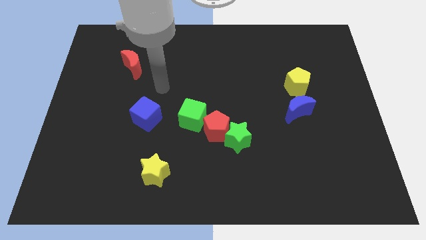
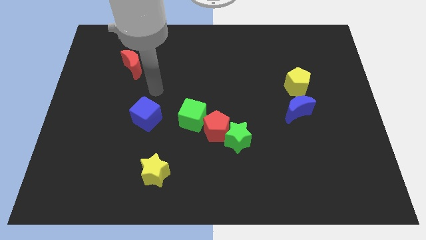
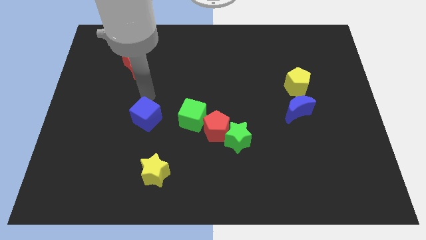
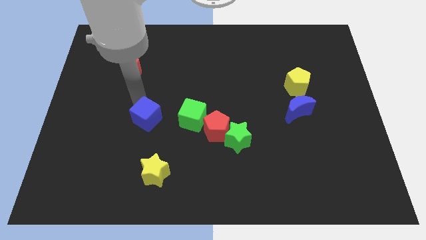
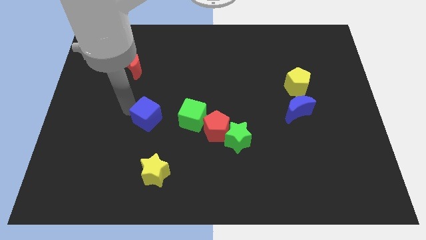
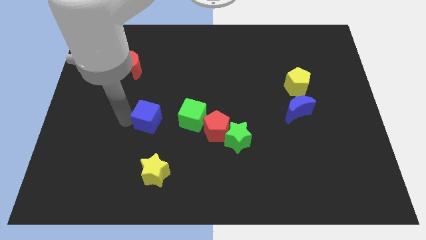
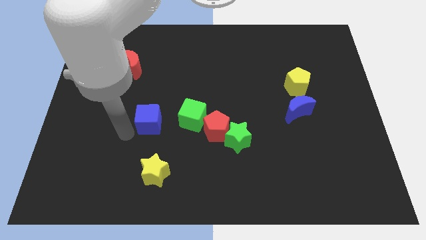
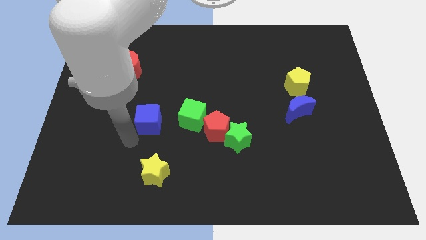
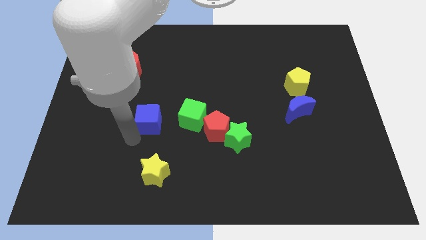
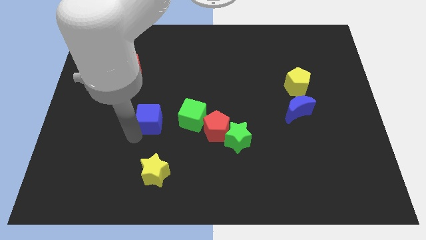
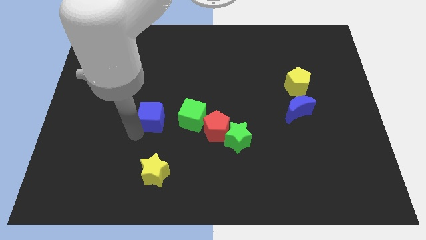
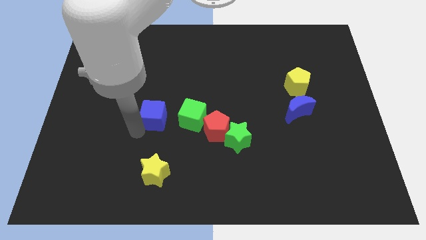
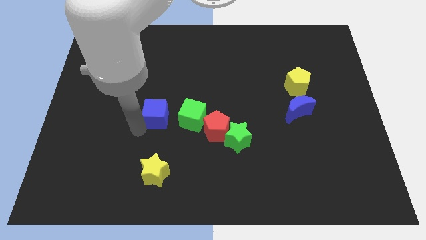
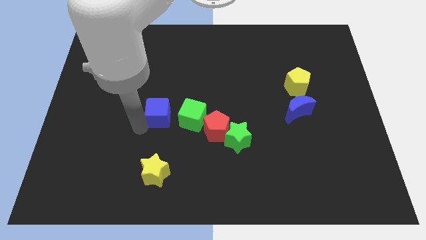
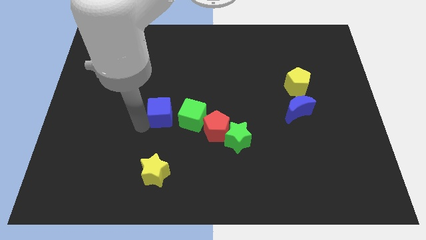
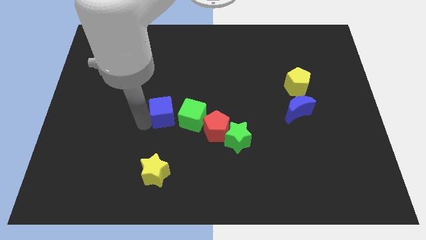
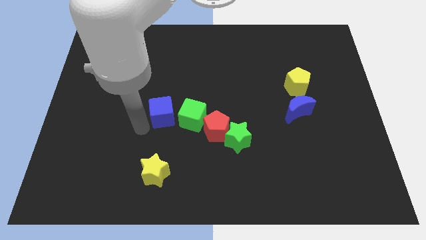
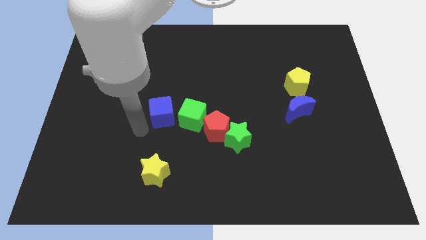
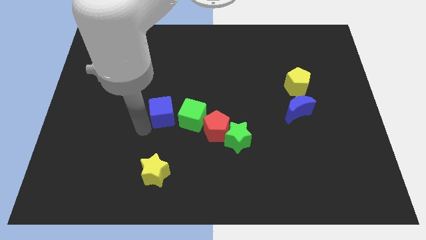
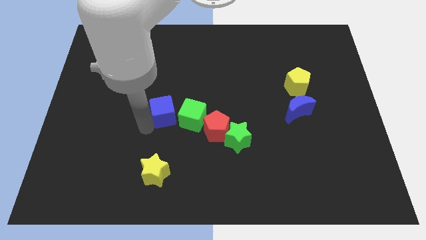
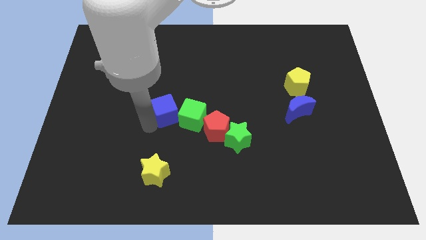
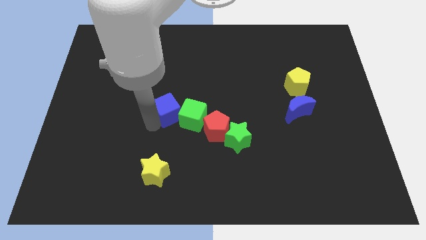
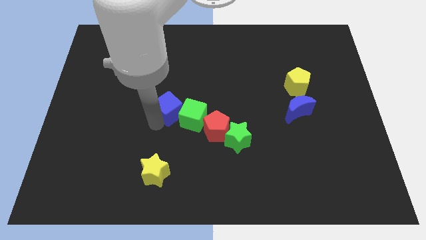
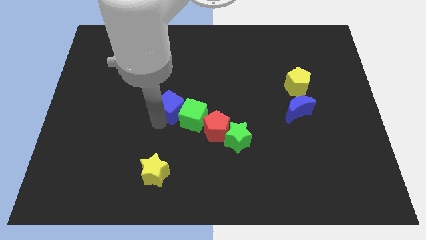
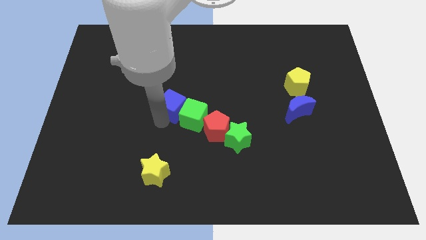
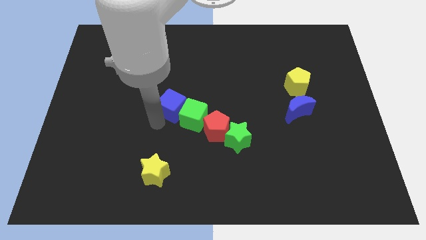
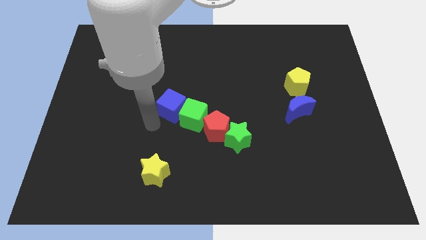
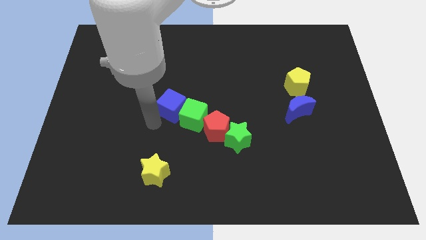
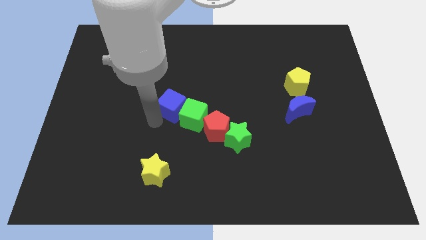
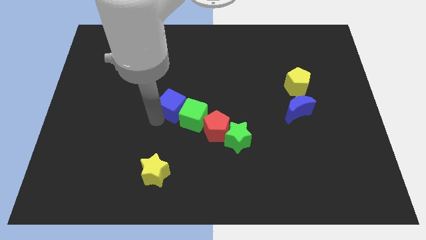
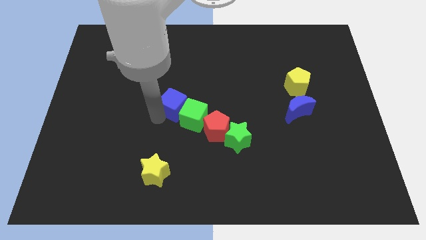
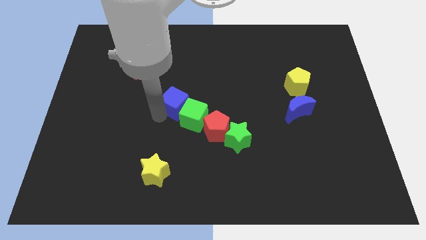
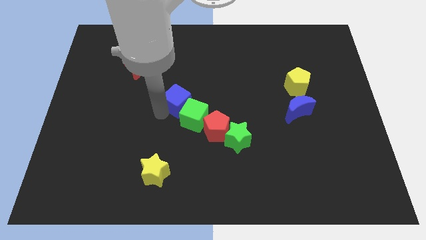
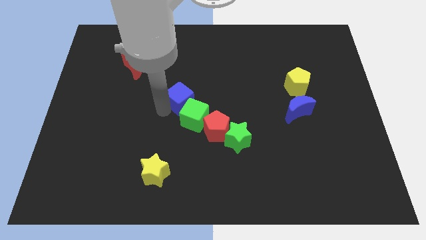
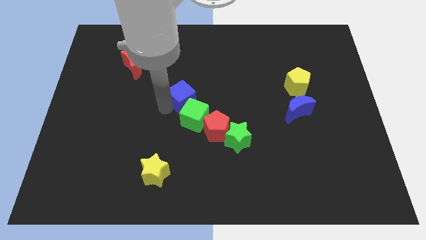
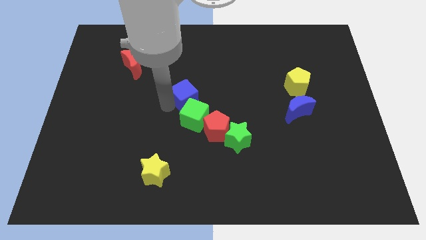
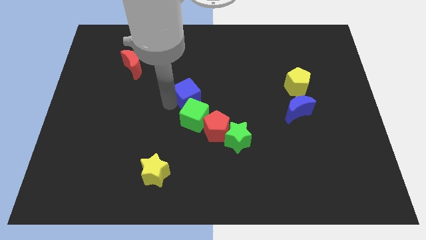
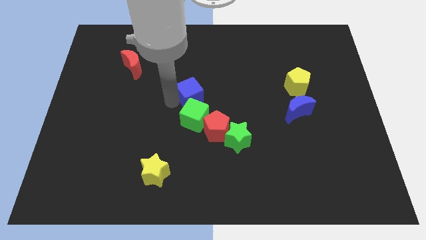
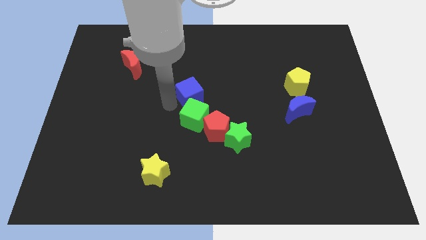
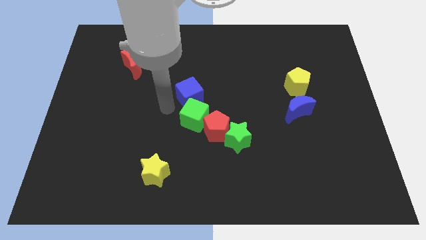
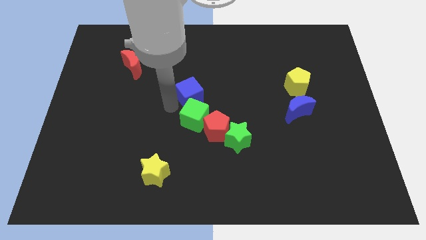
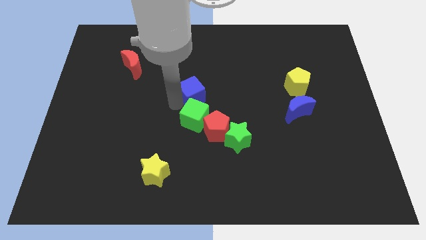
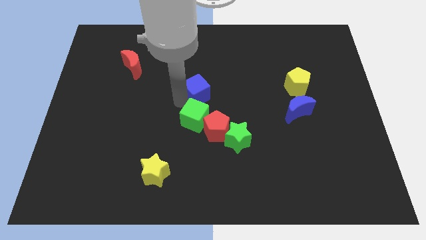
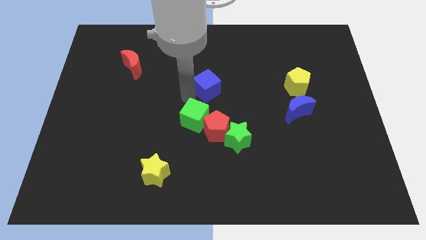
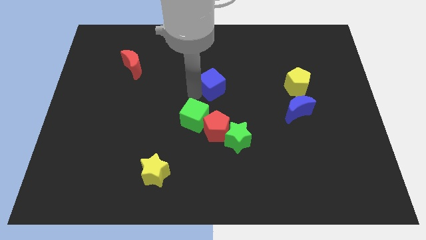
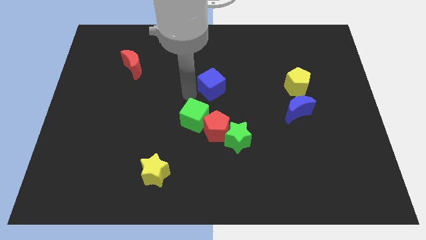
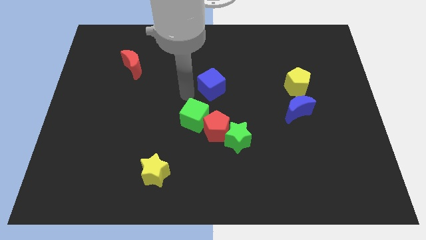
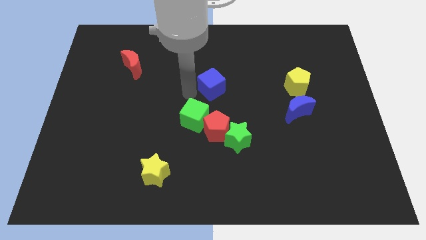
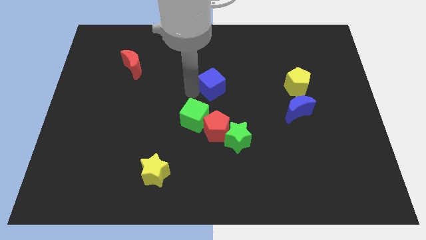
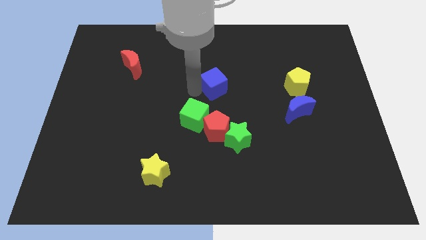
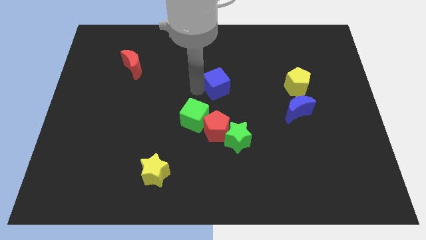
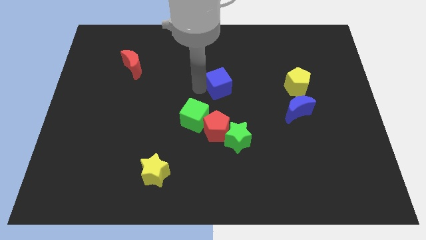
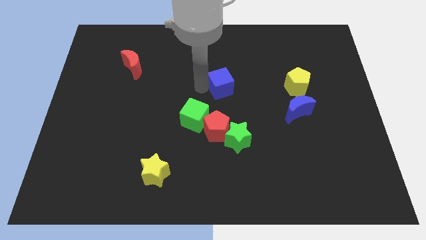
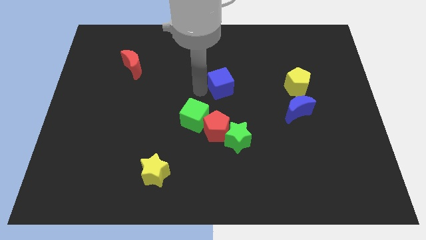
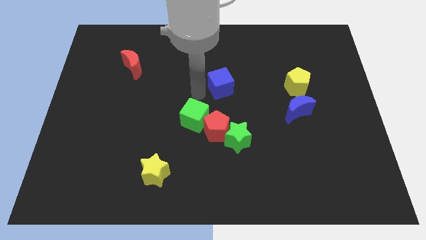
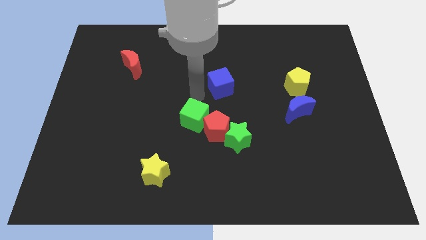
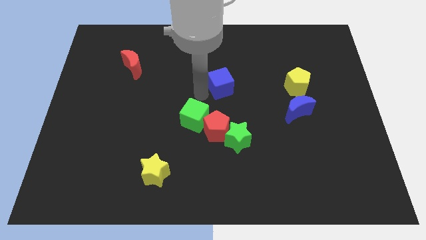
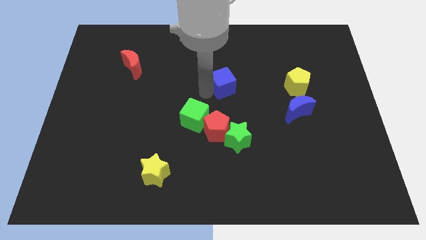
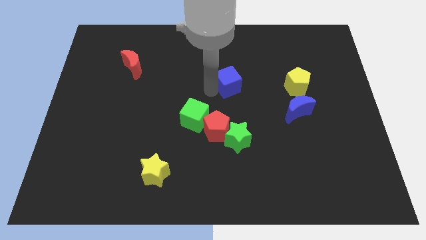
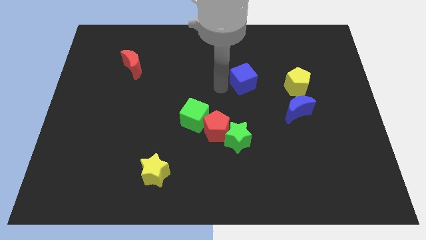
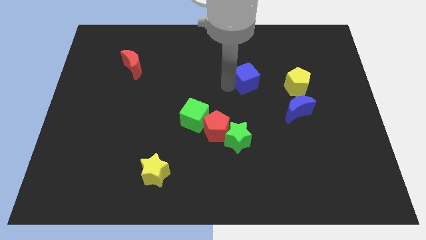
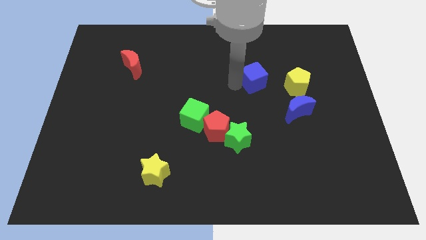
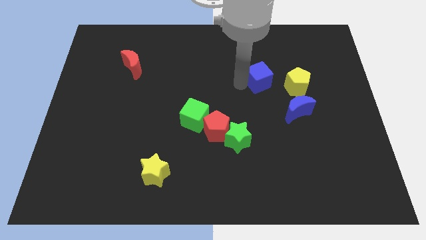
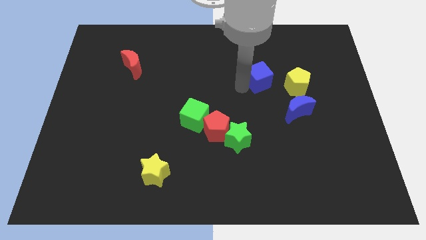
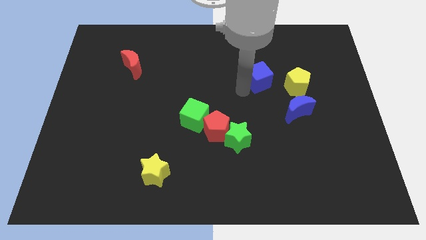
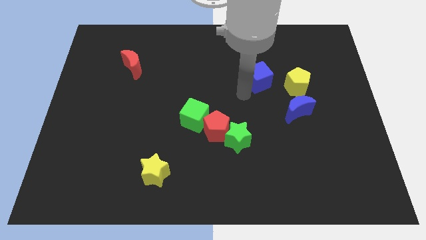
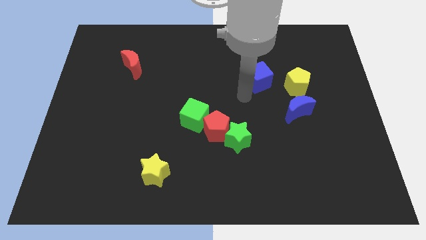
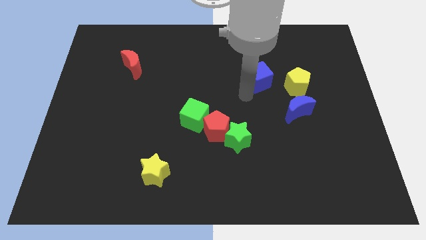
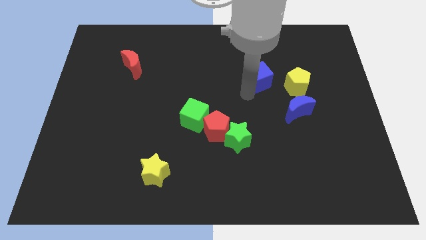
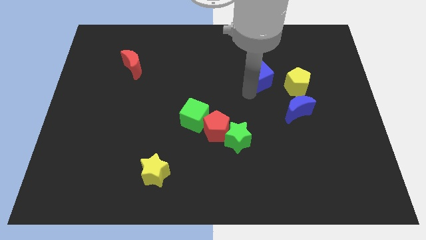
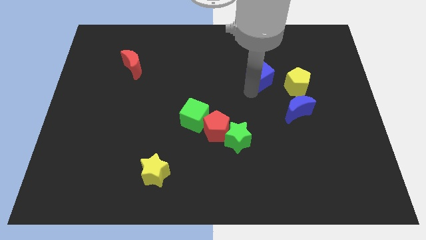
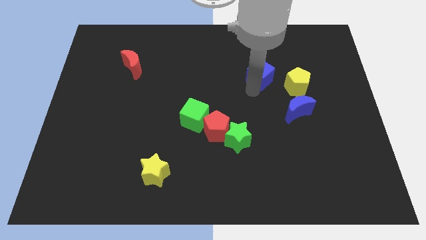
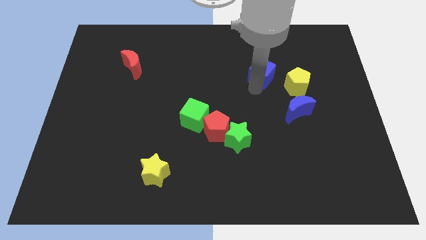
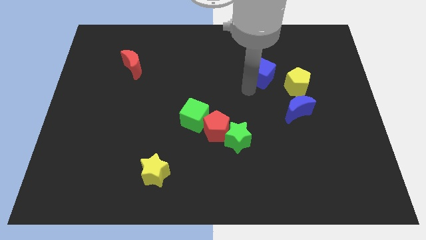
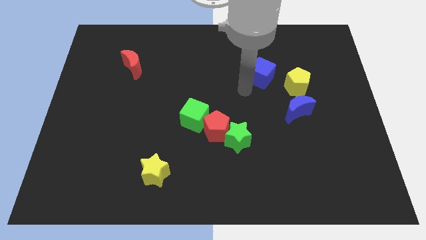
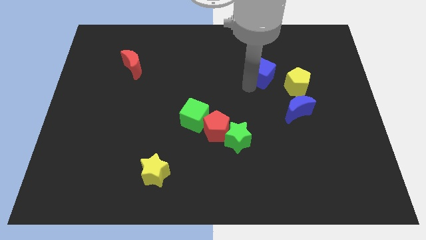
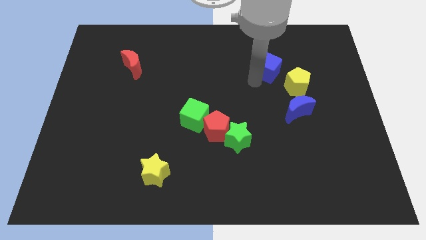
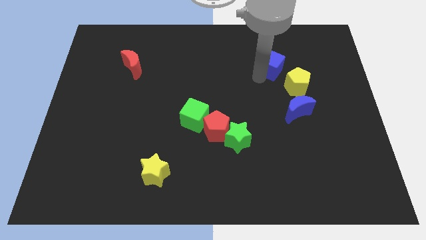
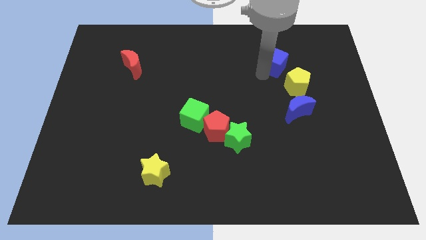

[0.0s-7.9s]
move the blue cube above the yellow pentagon
